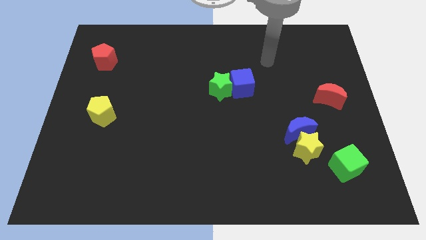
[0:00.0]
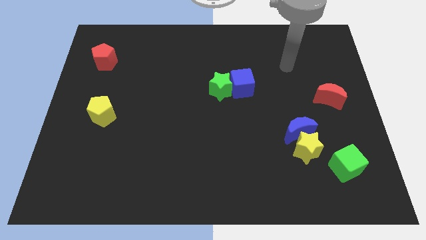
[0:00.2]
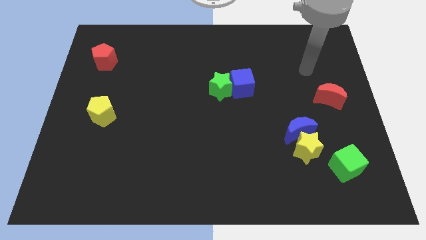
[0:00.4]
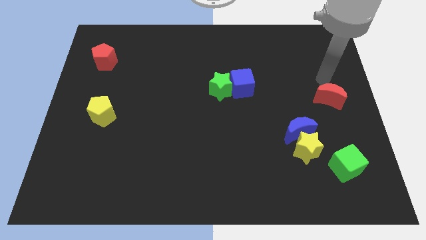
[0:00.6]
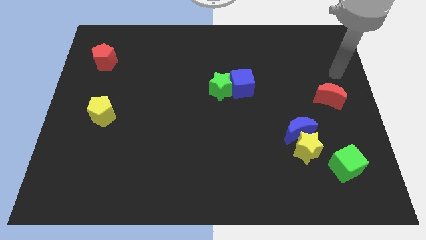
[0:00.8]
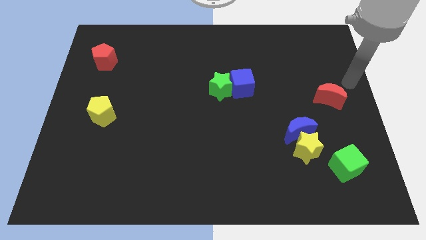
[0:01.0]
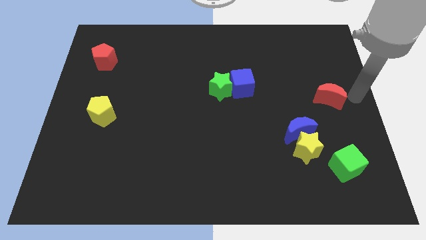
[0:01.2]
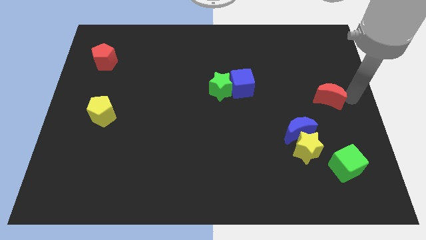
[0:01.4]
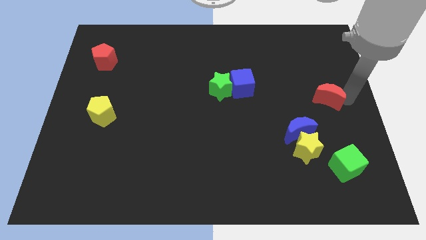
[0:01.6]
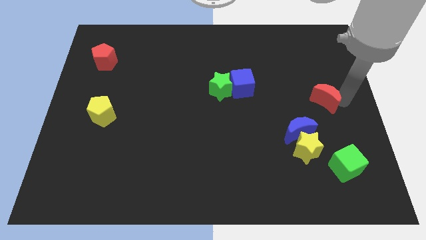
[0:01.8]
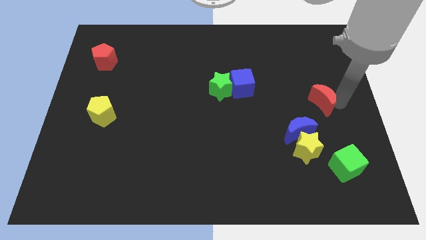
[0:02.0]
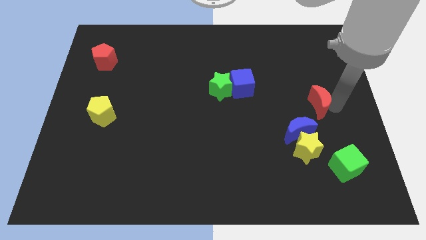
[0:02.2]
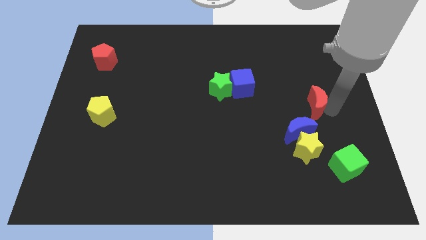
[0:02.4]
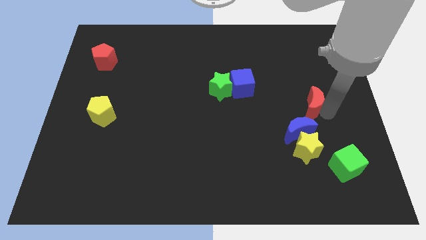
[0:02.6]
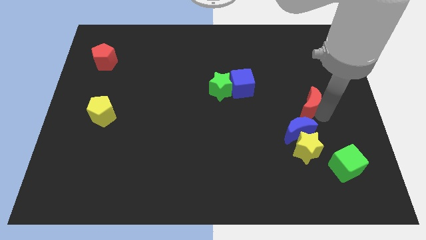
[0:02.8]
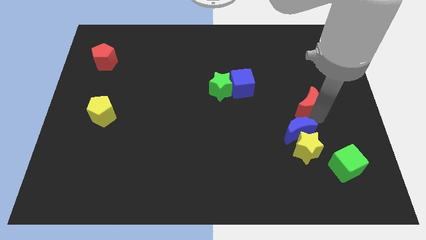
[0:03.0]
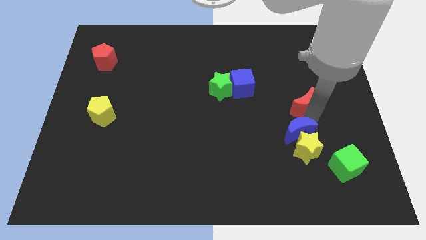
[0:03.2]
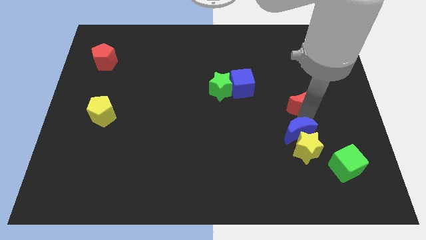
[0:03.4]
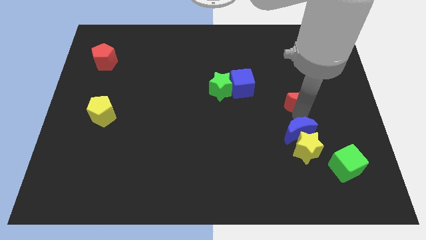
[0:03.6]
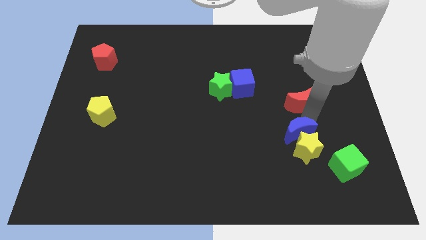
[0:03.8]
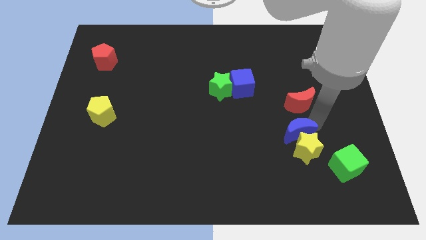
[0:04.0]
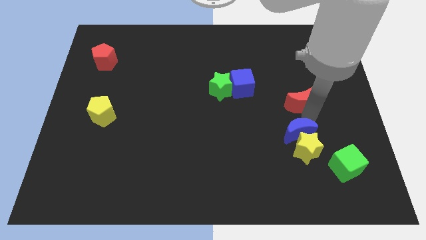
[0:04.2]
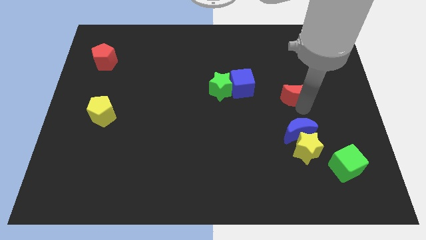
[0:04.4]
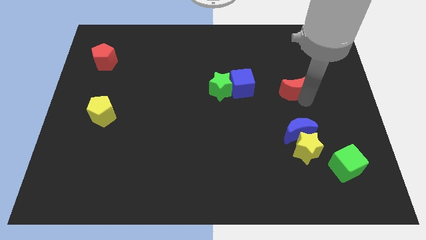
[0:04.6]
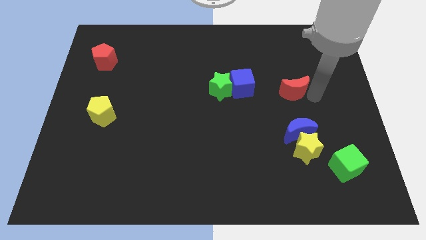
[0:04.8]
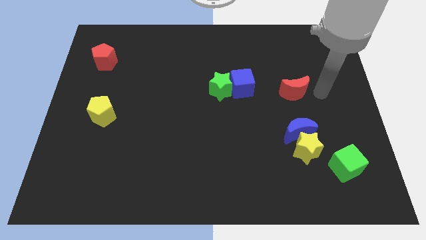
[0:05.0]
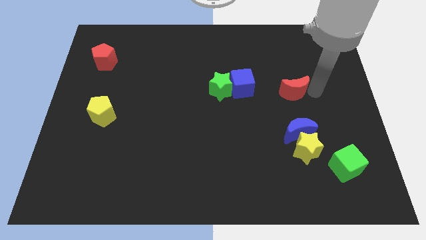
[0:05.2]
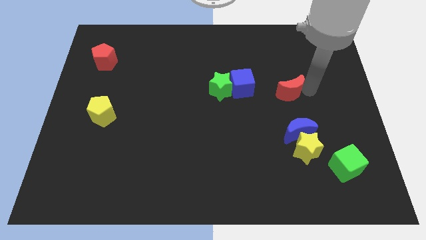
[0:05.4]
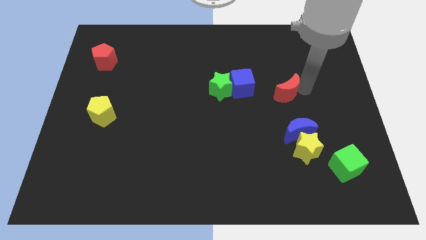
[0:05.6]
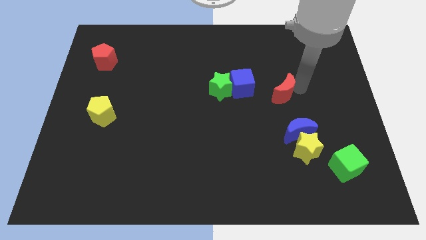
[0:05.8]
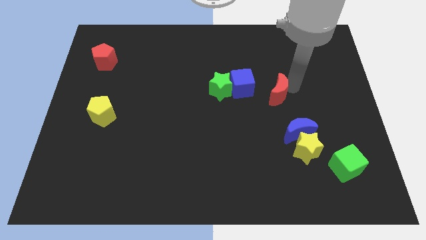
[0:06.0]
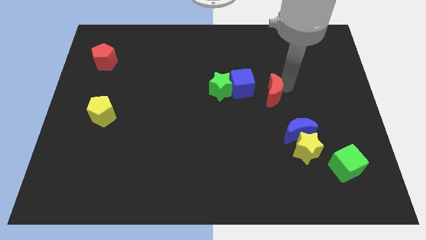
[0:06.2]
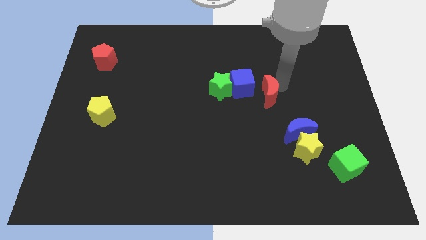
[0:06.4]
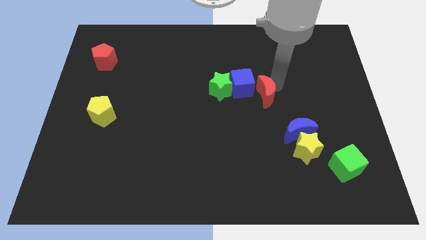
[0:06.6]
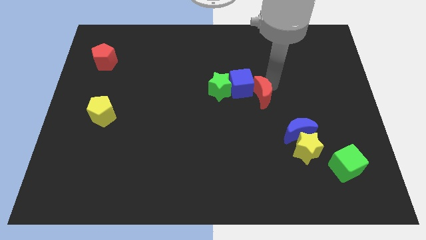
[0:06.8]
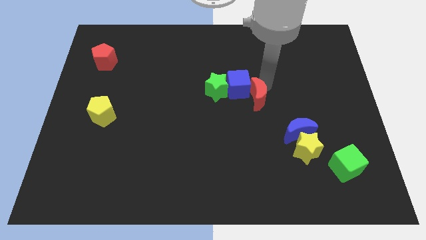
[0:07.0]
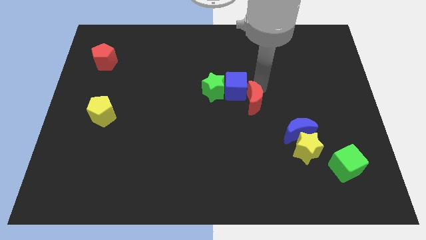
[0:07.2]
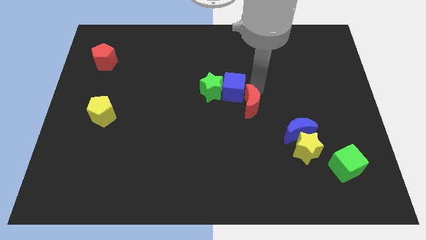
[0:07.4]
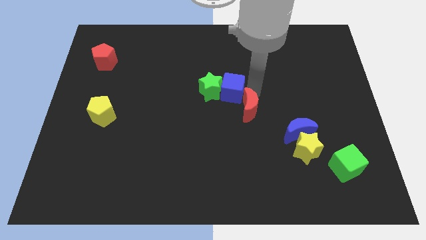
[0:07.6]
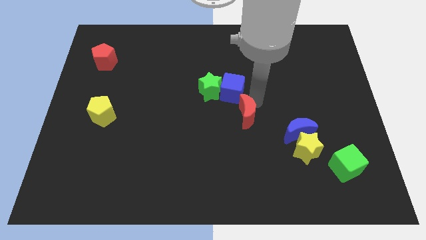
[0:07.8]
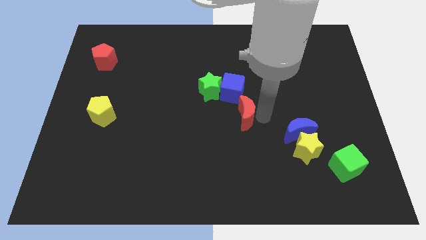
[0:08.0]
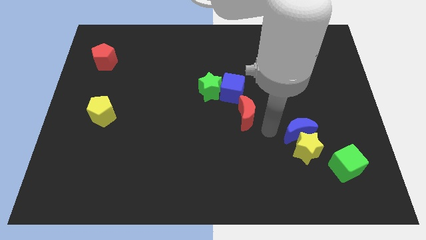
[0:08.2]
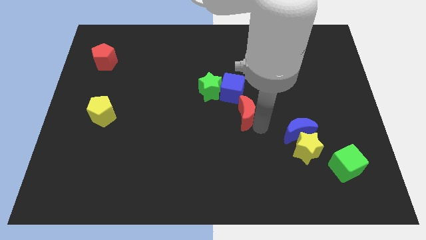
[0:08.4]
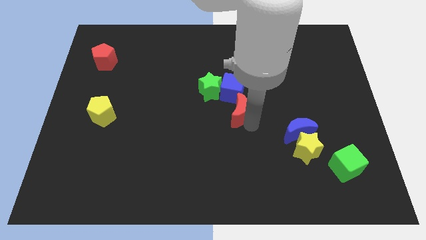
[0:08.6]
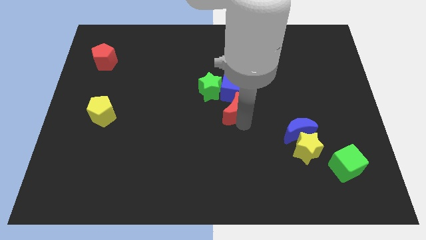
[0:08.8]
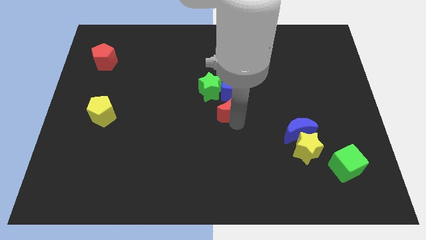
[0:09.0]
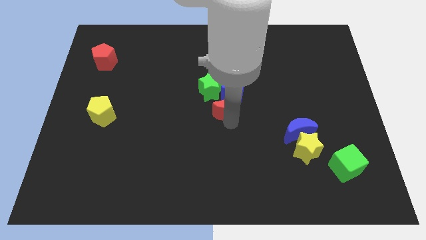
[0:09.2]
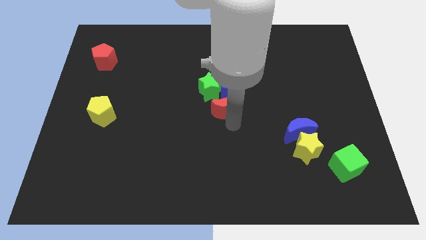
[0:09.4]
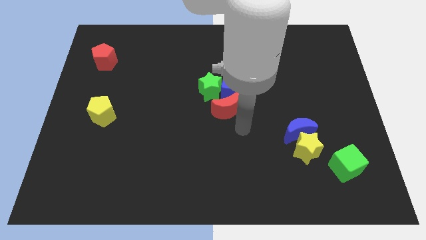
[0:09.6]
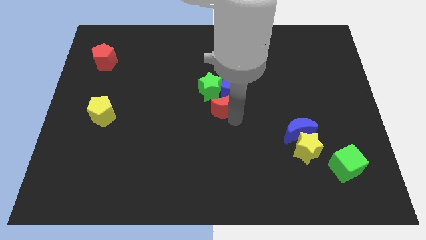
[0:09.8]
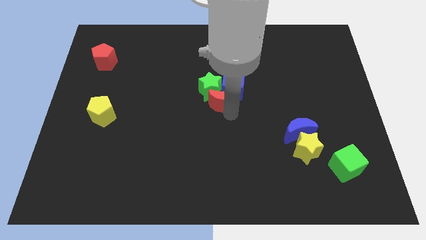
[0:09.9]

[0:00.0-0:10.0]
move the red moon next to the green star

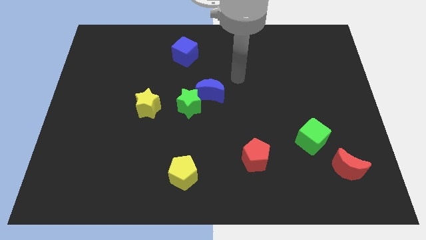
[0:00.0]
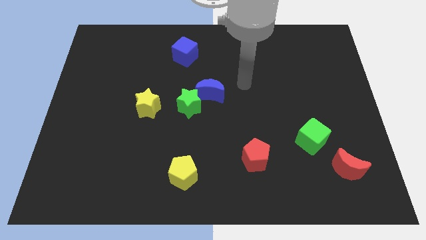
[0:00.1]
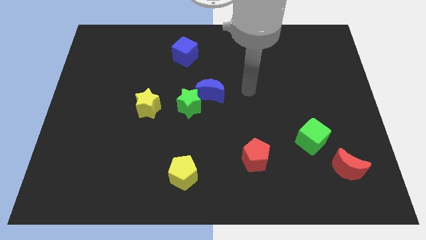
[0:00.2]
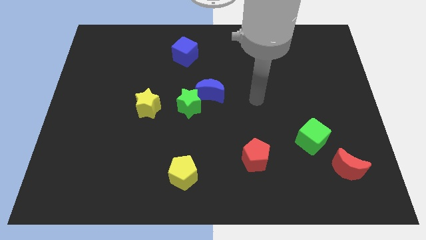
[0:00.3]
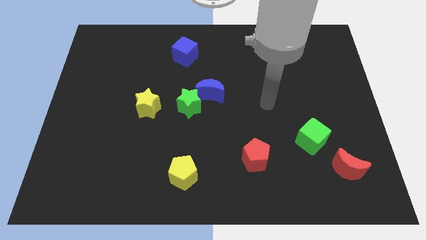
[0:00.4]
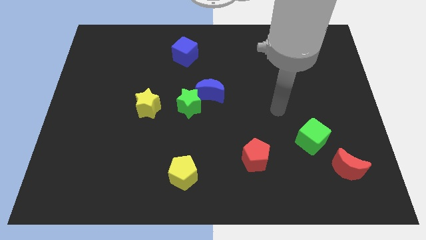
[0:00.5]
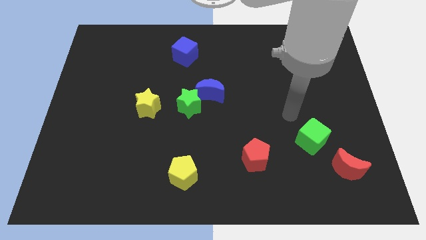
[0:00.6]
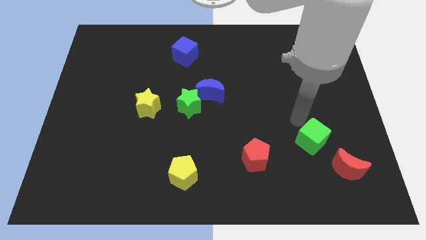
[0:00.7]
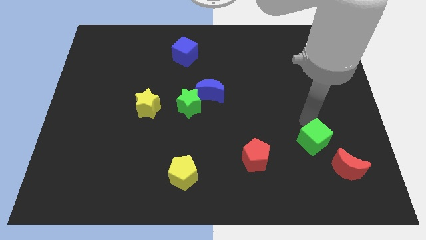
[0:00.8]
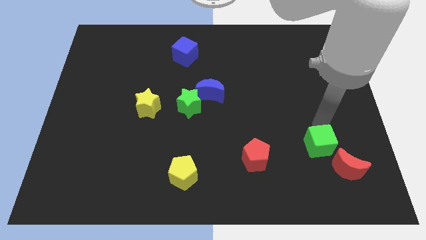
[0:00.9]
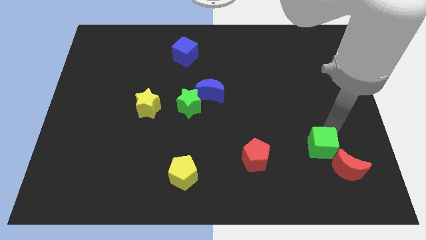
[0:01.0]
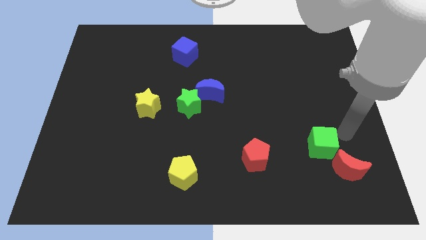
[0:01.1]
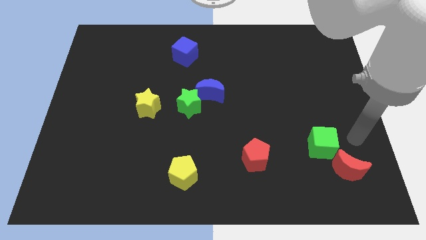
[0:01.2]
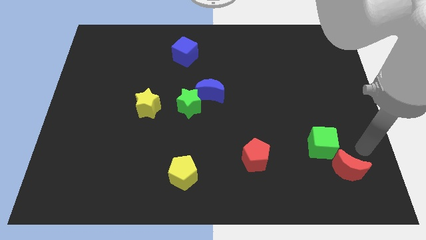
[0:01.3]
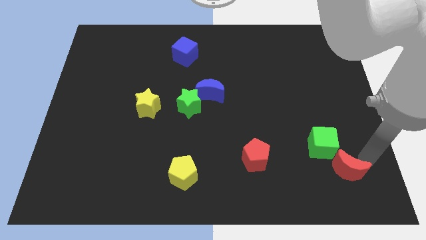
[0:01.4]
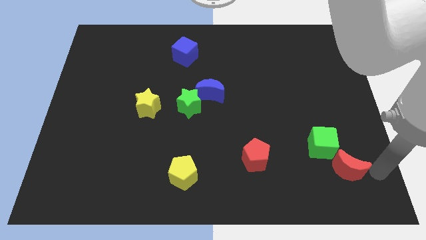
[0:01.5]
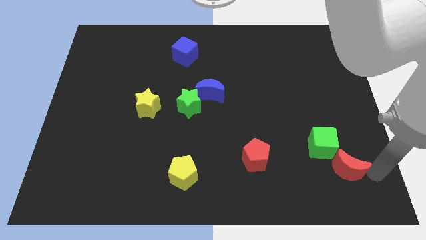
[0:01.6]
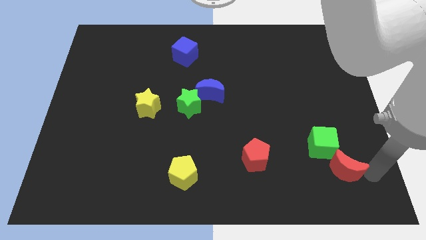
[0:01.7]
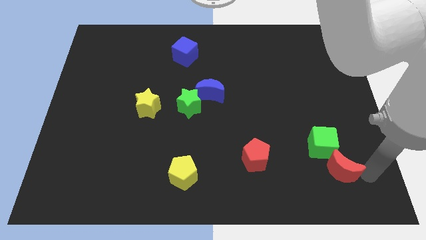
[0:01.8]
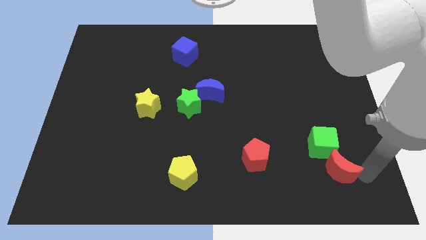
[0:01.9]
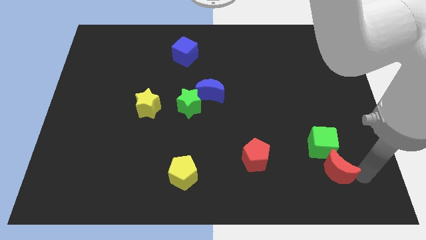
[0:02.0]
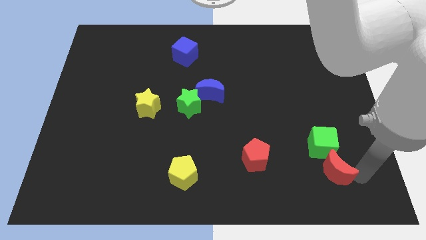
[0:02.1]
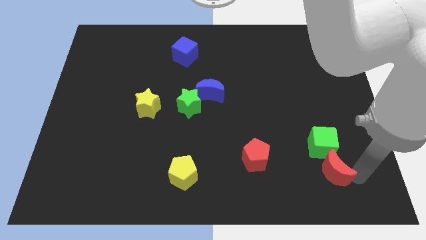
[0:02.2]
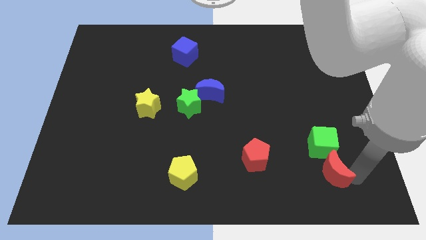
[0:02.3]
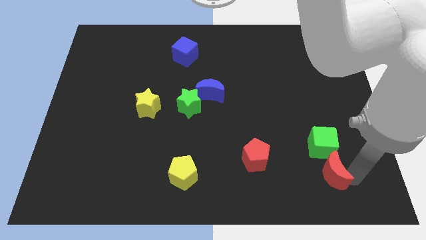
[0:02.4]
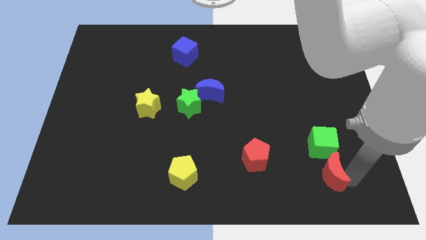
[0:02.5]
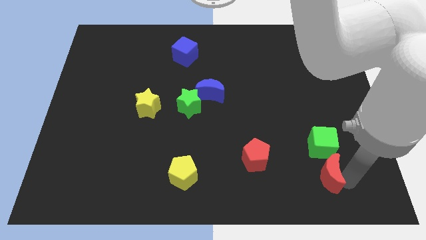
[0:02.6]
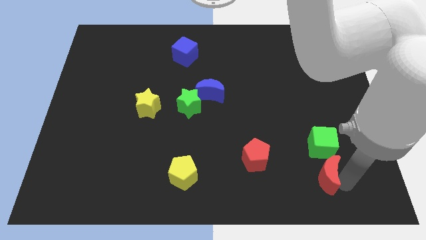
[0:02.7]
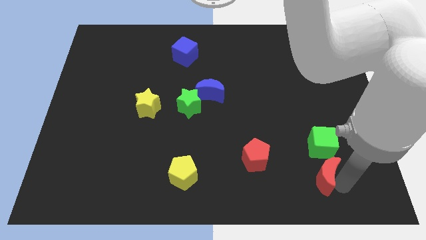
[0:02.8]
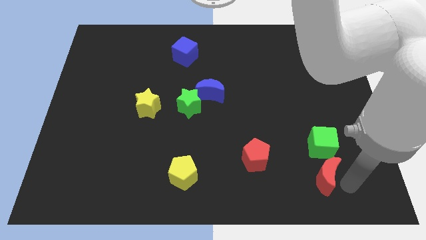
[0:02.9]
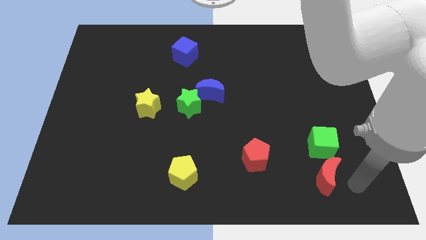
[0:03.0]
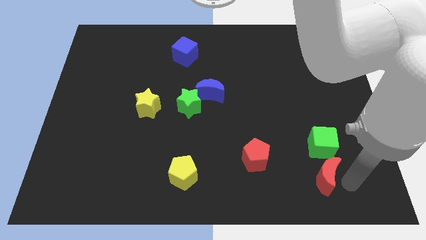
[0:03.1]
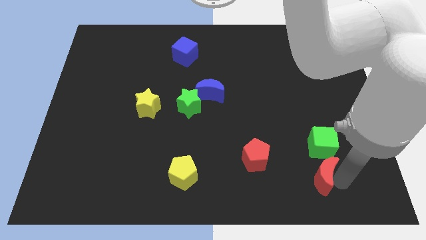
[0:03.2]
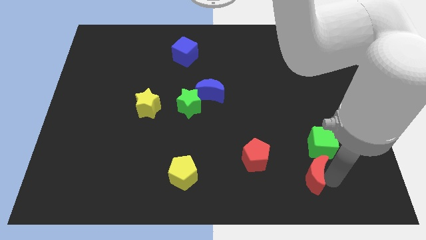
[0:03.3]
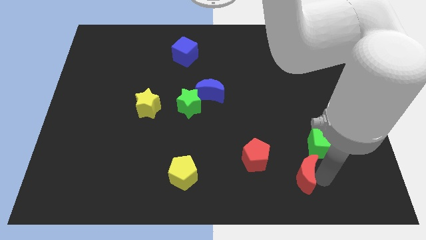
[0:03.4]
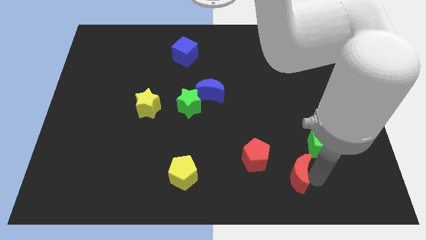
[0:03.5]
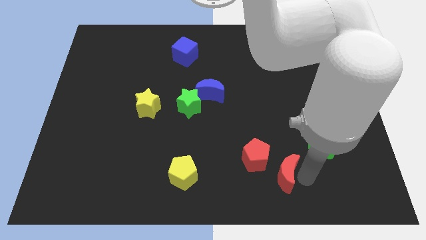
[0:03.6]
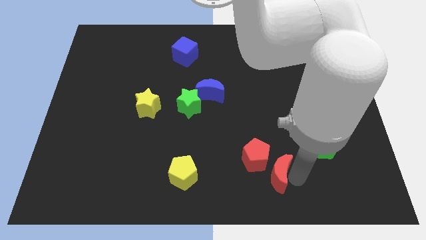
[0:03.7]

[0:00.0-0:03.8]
push the red moon close to the red pentagon
